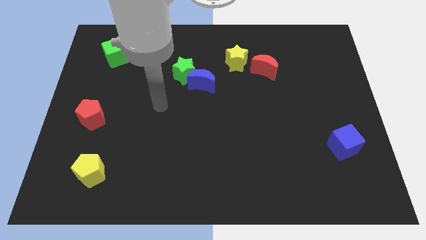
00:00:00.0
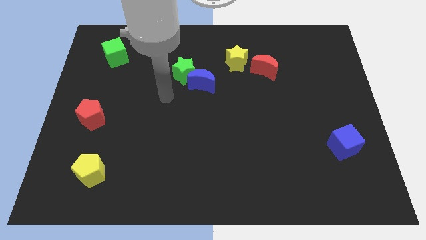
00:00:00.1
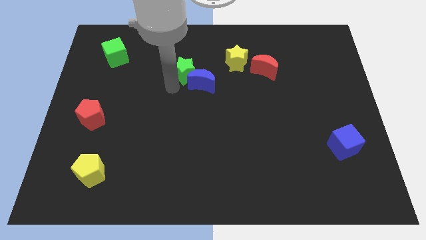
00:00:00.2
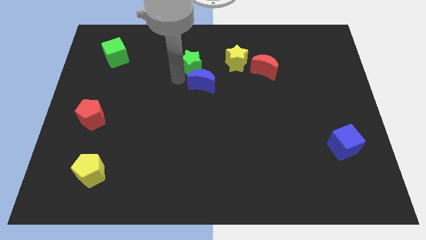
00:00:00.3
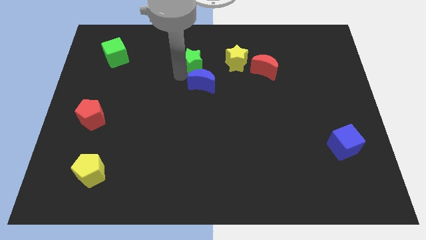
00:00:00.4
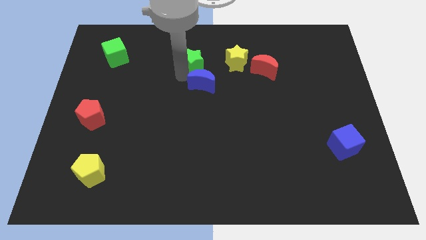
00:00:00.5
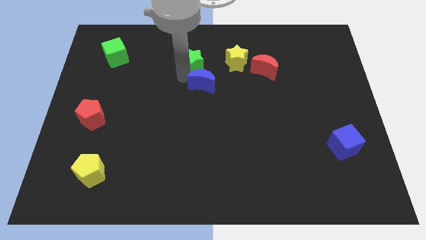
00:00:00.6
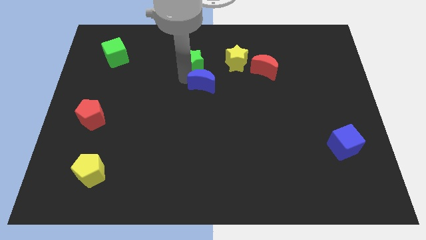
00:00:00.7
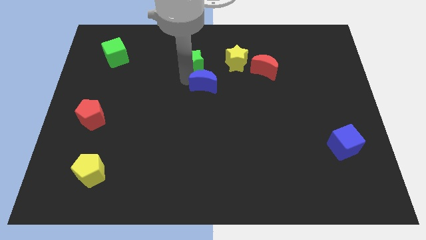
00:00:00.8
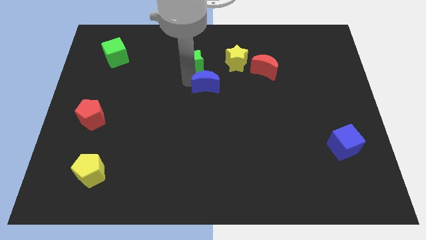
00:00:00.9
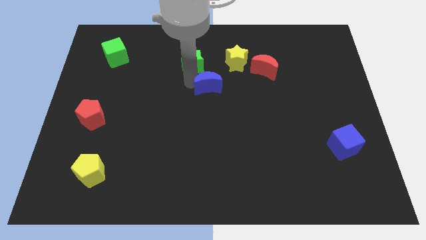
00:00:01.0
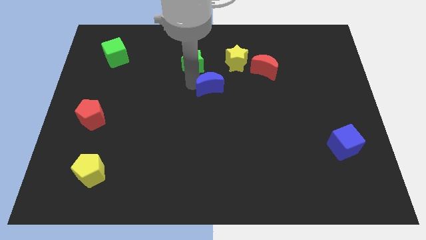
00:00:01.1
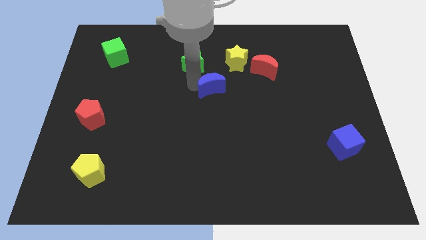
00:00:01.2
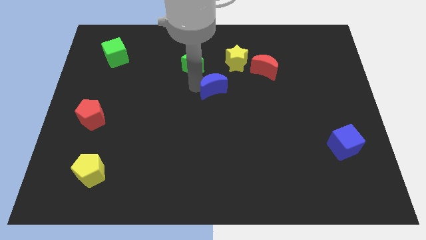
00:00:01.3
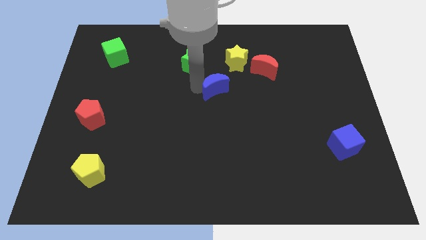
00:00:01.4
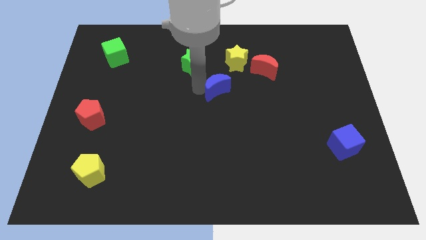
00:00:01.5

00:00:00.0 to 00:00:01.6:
separate the blue moon from the green star

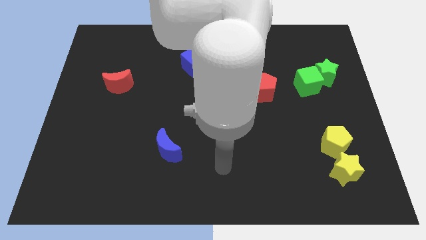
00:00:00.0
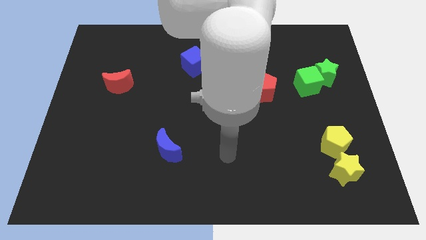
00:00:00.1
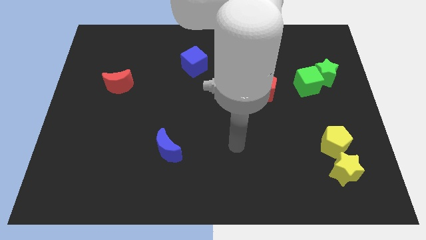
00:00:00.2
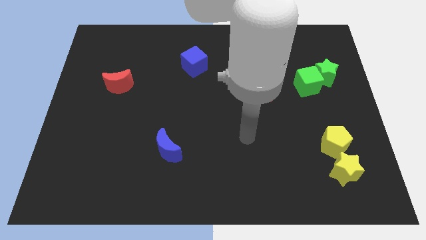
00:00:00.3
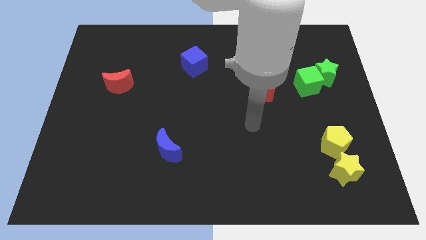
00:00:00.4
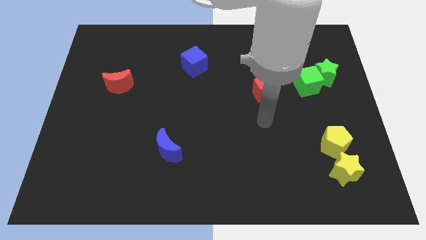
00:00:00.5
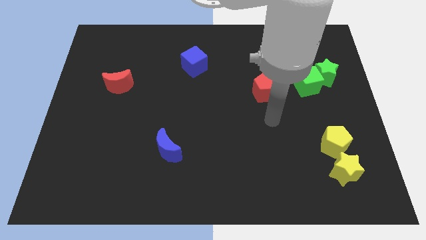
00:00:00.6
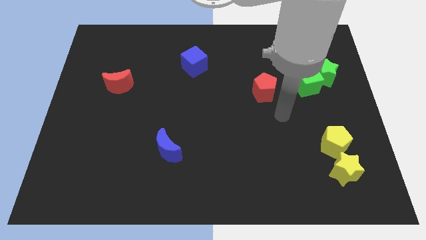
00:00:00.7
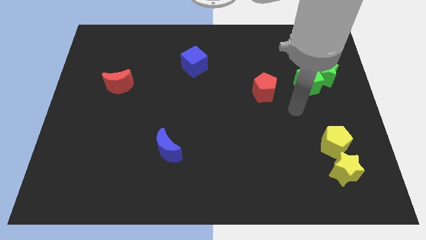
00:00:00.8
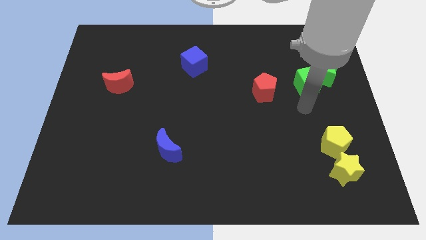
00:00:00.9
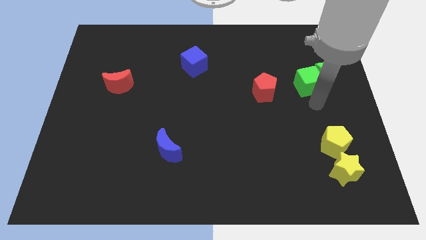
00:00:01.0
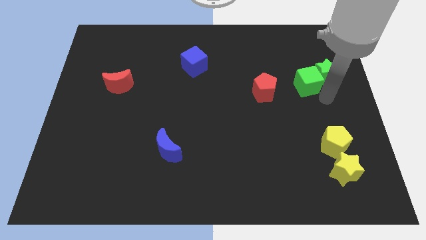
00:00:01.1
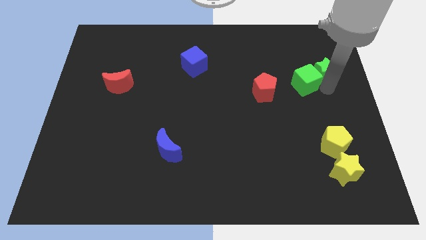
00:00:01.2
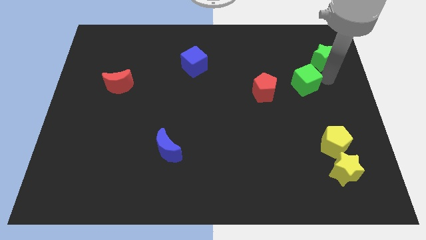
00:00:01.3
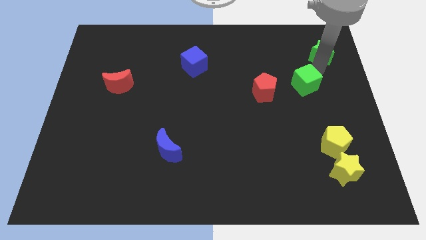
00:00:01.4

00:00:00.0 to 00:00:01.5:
separate the green cube from the green star

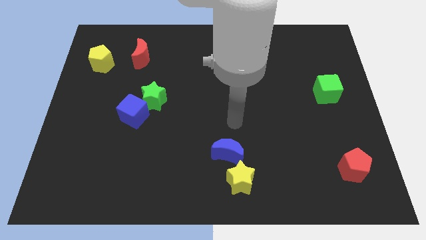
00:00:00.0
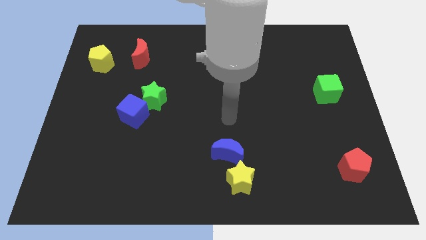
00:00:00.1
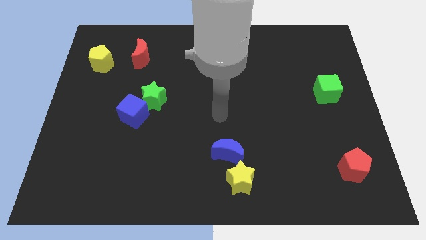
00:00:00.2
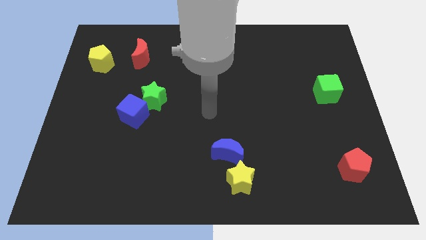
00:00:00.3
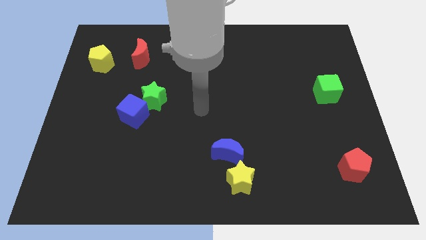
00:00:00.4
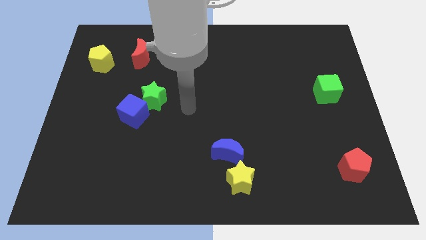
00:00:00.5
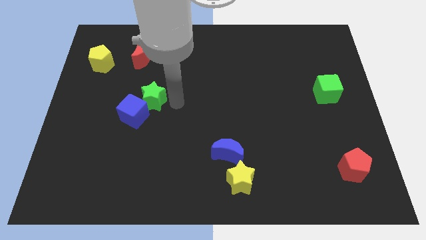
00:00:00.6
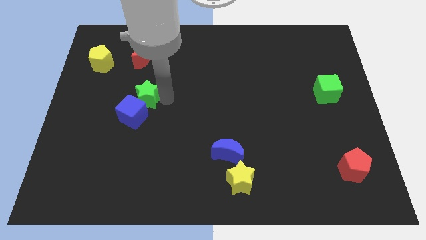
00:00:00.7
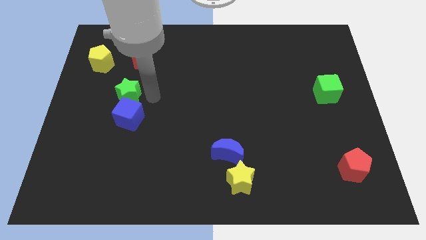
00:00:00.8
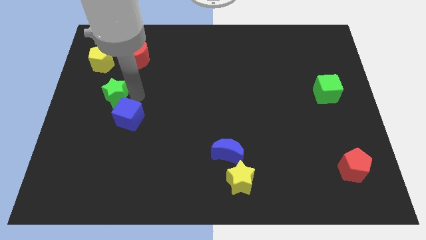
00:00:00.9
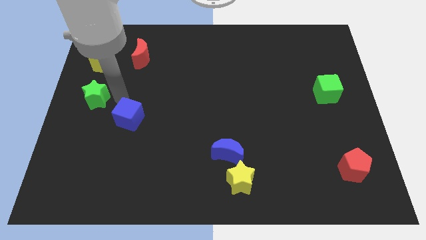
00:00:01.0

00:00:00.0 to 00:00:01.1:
pull the blue cube apart from the green star

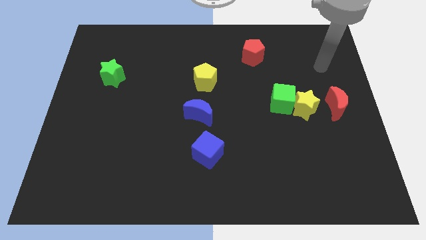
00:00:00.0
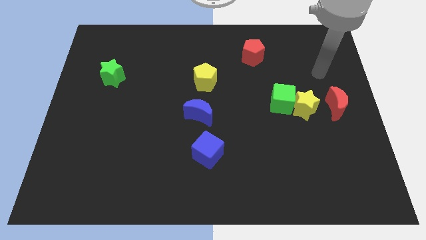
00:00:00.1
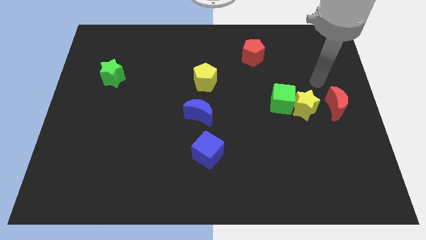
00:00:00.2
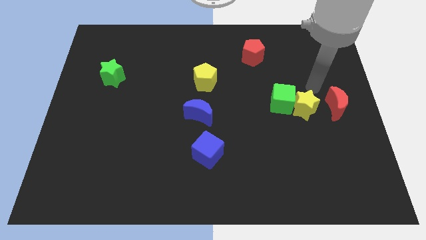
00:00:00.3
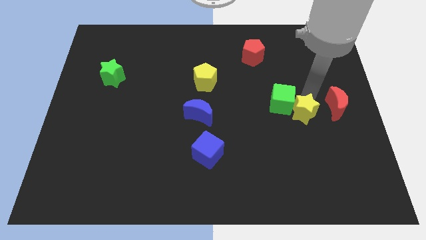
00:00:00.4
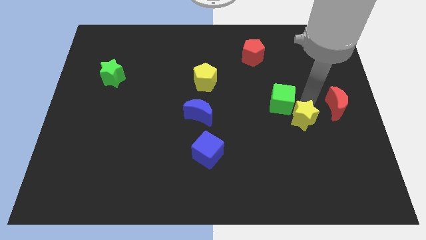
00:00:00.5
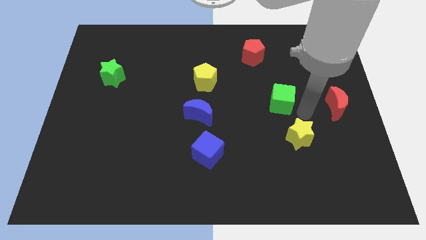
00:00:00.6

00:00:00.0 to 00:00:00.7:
pull the green cube apart from the yellow star

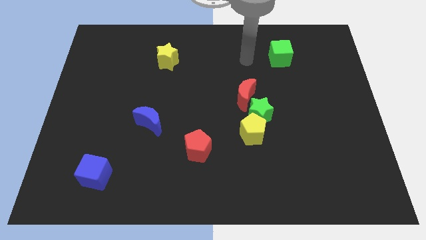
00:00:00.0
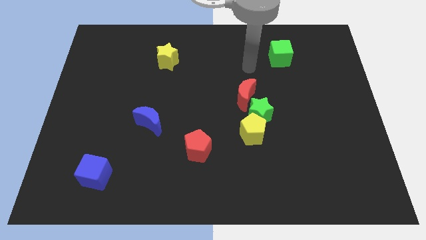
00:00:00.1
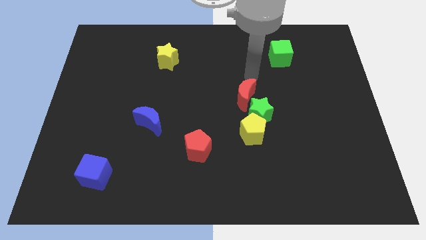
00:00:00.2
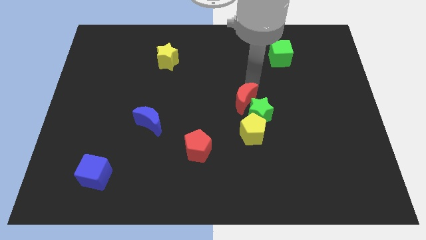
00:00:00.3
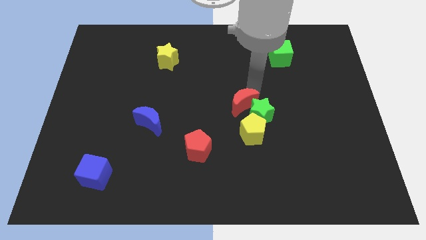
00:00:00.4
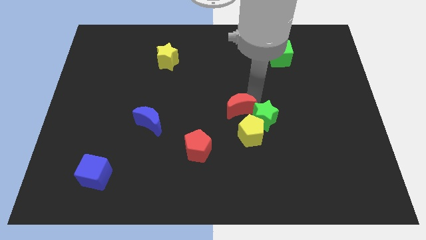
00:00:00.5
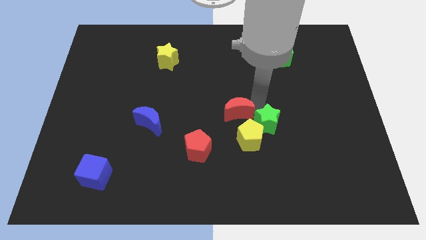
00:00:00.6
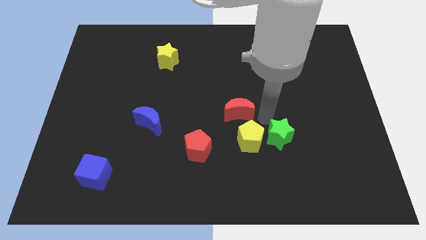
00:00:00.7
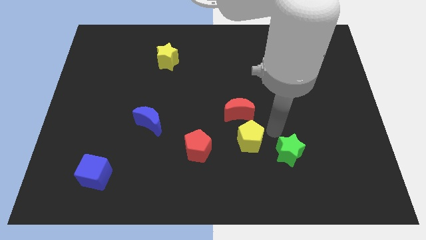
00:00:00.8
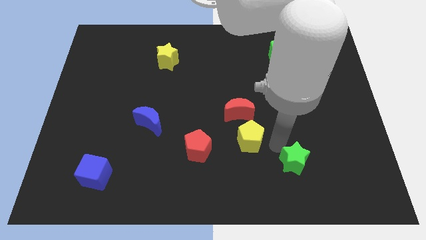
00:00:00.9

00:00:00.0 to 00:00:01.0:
move the yellow pentagon away from the green star

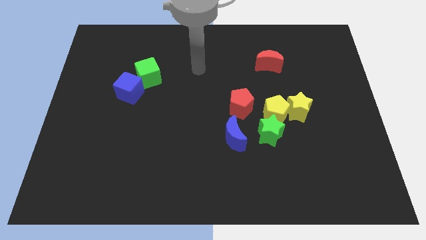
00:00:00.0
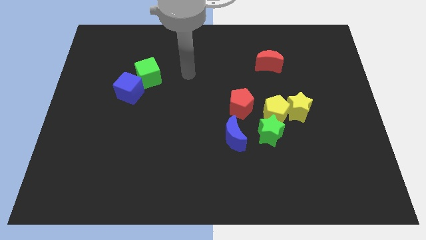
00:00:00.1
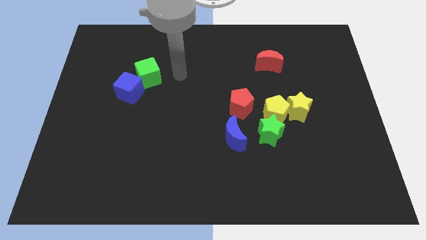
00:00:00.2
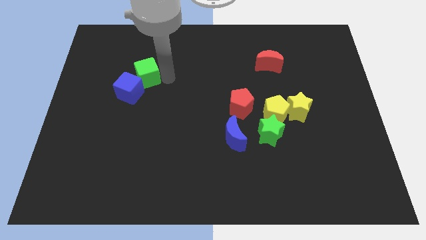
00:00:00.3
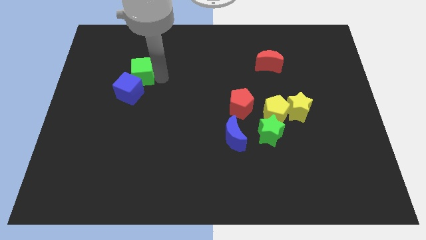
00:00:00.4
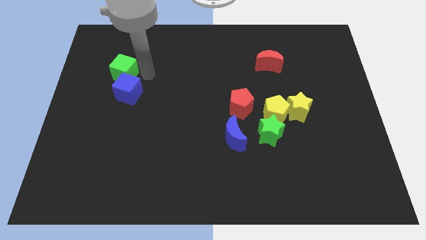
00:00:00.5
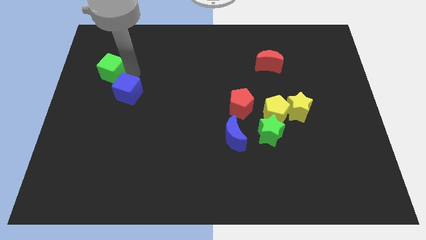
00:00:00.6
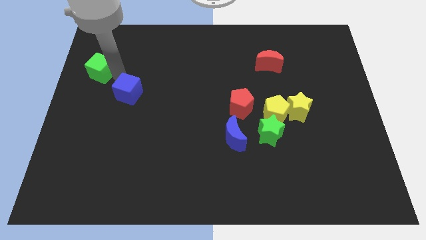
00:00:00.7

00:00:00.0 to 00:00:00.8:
move the blue cube away from the green cube

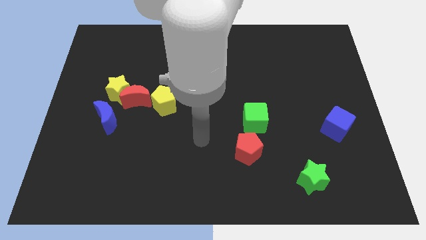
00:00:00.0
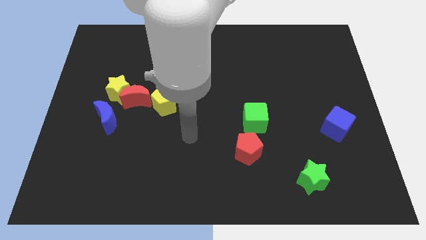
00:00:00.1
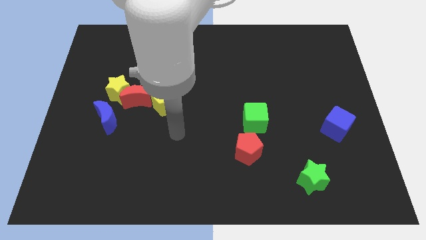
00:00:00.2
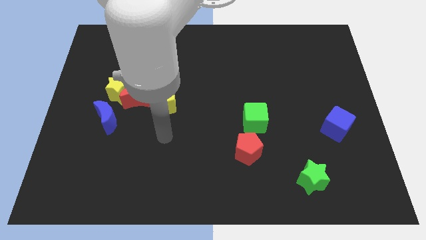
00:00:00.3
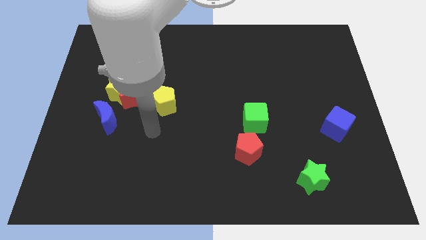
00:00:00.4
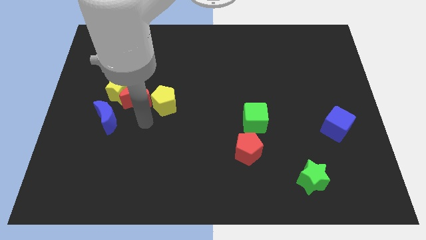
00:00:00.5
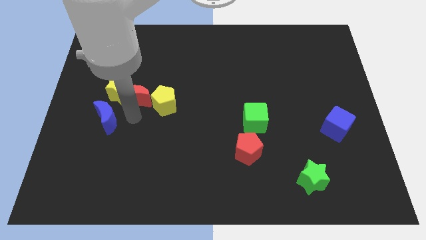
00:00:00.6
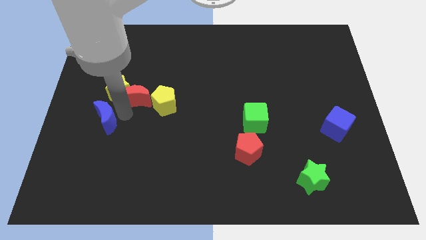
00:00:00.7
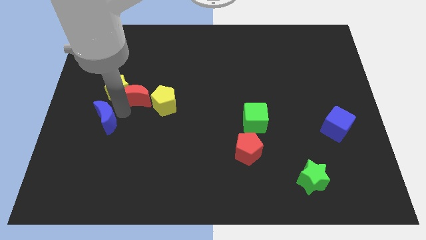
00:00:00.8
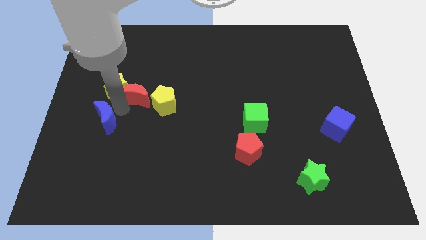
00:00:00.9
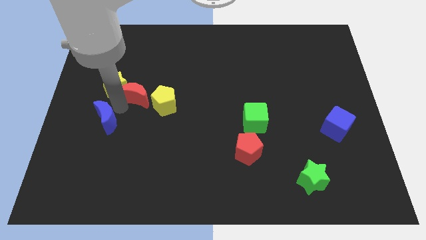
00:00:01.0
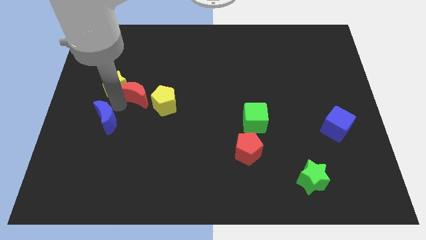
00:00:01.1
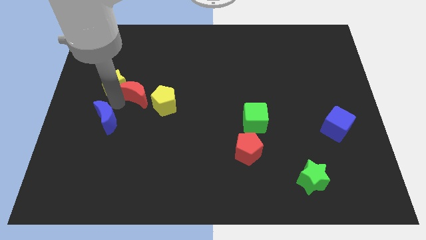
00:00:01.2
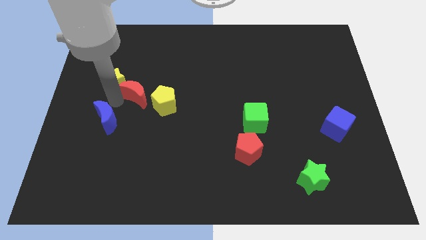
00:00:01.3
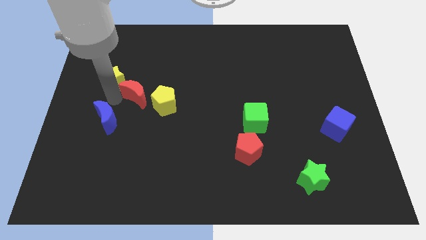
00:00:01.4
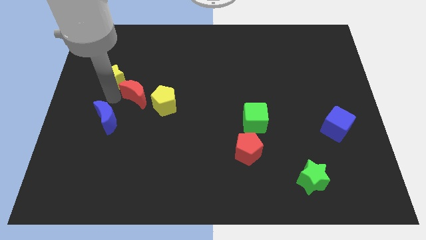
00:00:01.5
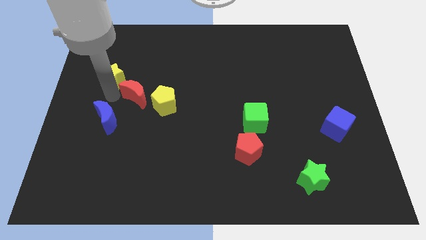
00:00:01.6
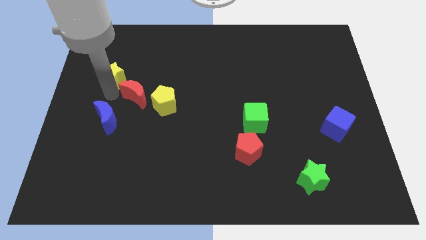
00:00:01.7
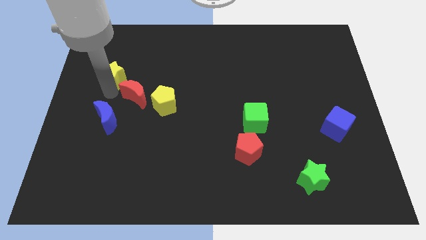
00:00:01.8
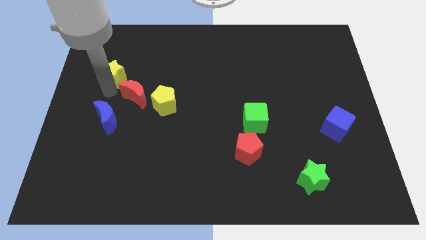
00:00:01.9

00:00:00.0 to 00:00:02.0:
move the yellow star away from the red moon and blue moon

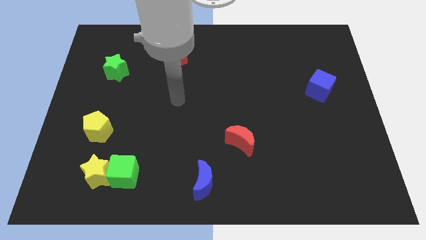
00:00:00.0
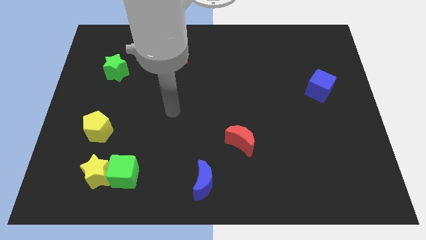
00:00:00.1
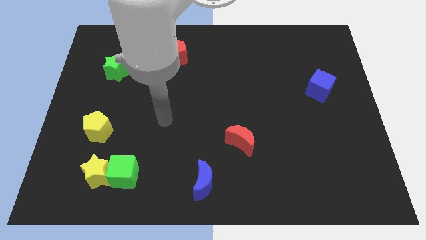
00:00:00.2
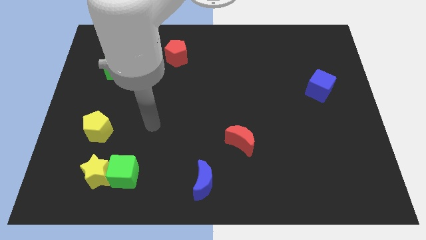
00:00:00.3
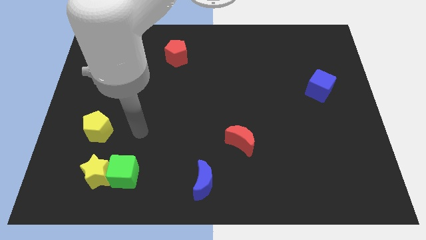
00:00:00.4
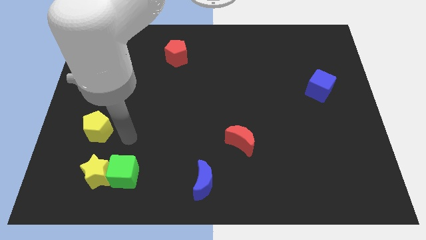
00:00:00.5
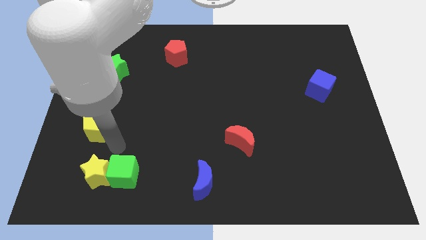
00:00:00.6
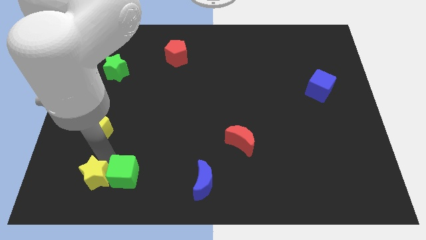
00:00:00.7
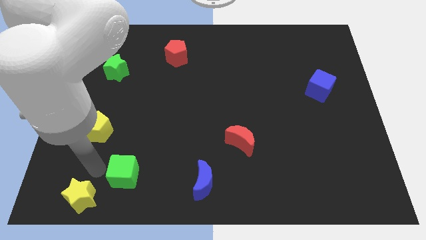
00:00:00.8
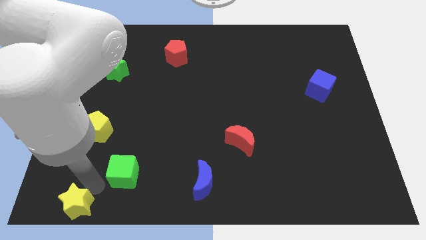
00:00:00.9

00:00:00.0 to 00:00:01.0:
separate the green cube from the yellow star
